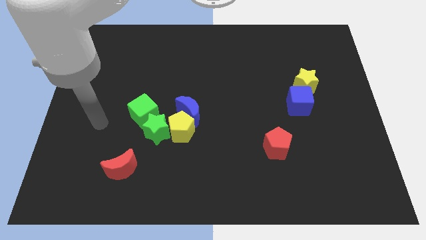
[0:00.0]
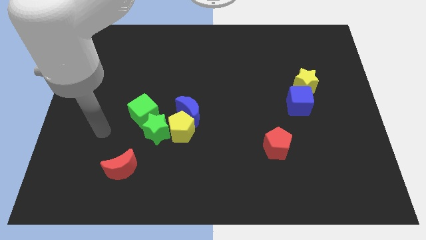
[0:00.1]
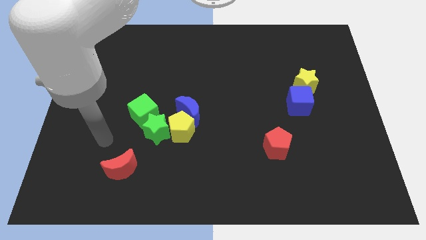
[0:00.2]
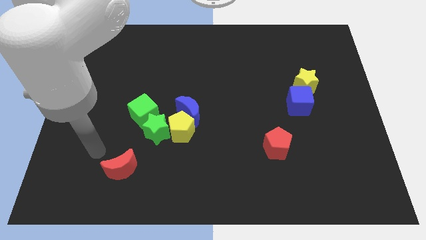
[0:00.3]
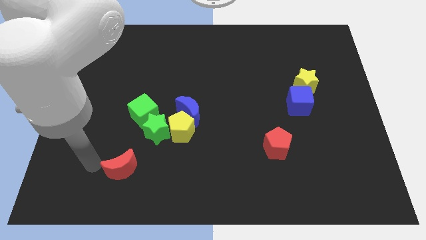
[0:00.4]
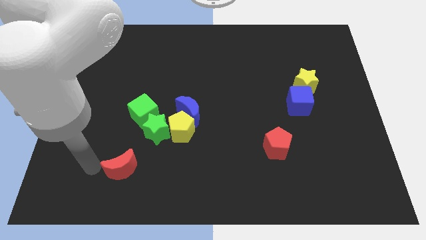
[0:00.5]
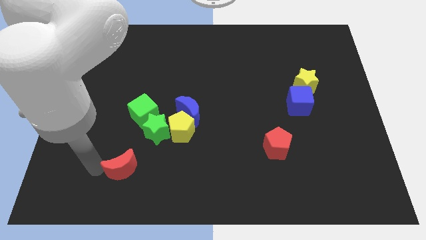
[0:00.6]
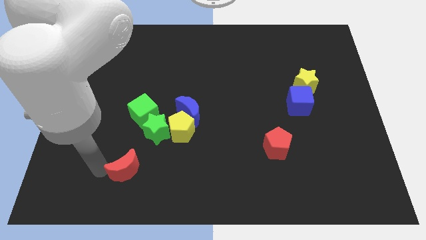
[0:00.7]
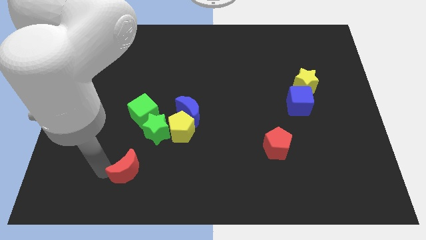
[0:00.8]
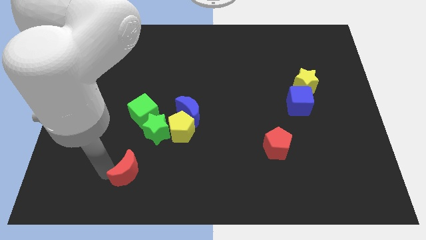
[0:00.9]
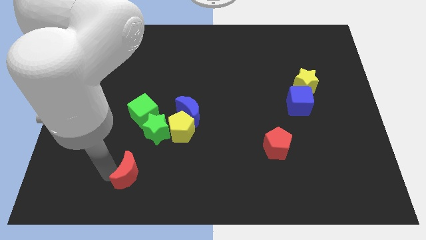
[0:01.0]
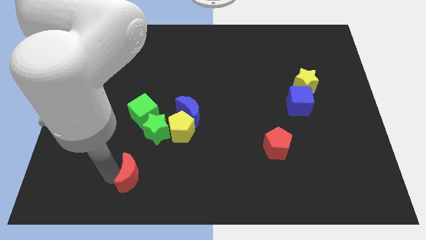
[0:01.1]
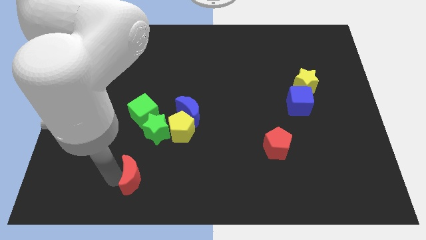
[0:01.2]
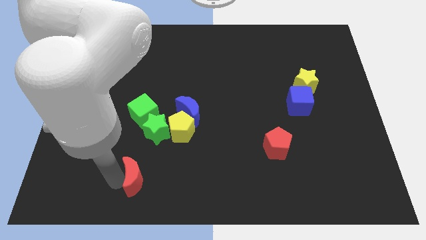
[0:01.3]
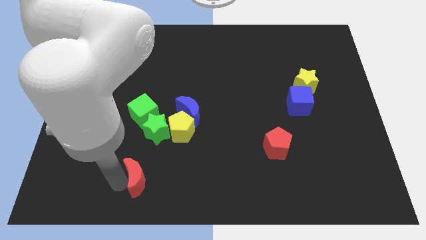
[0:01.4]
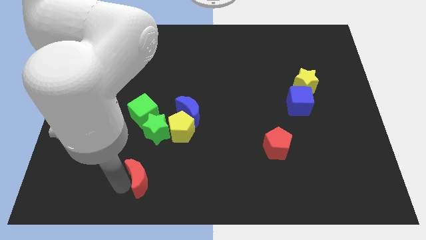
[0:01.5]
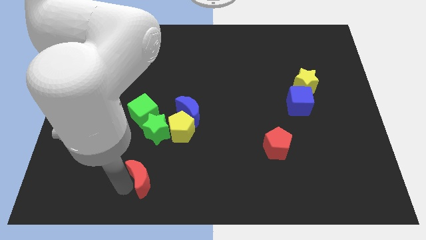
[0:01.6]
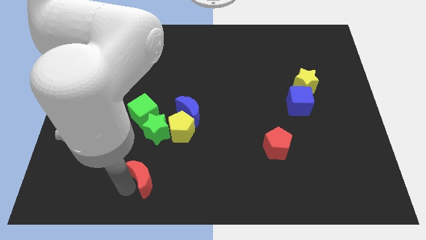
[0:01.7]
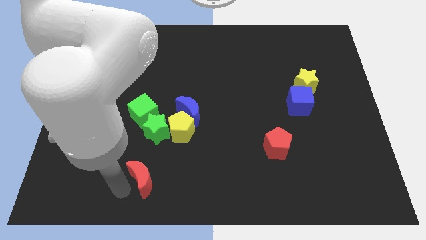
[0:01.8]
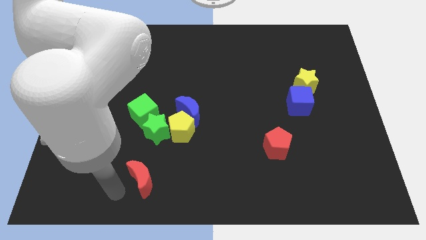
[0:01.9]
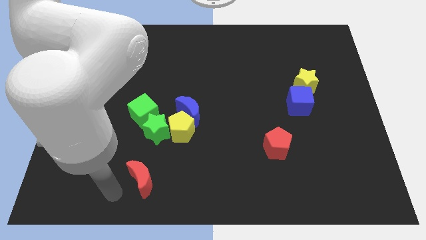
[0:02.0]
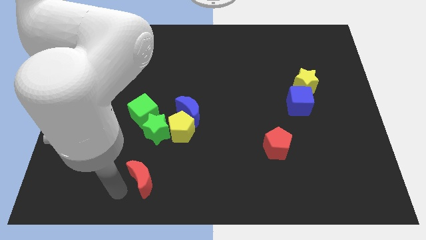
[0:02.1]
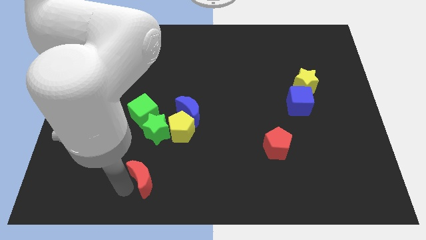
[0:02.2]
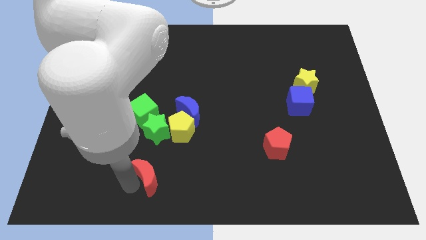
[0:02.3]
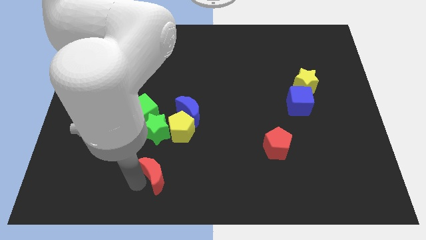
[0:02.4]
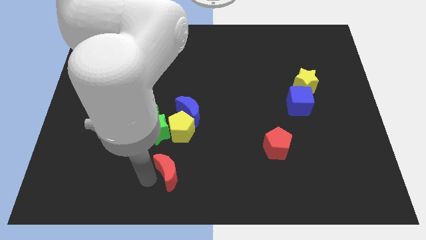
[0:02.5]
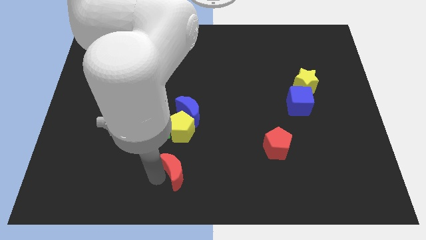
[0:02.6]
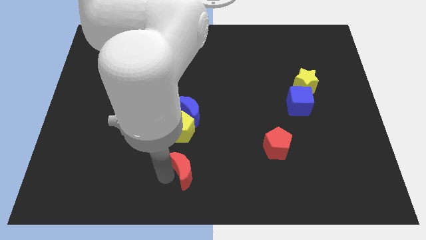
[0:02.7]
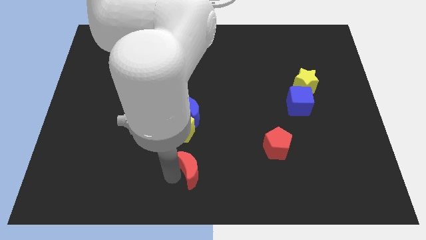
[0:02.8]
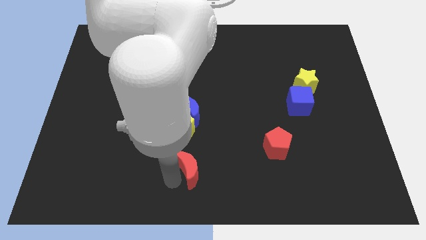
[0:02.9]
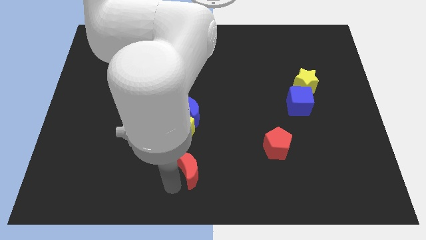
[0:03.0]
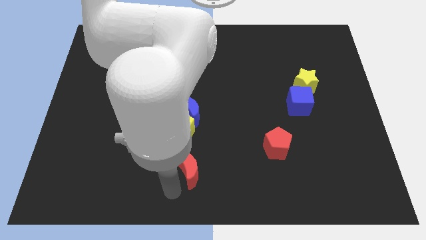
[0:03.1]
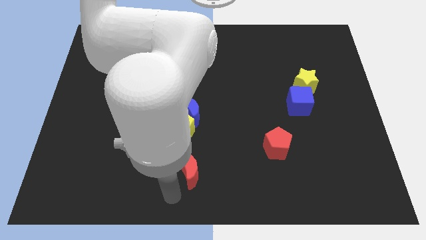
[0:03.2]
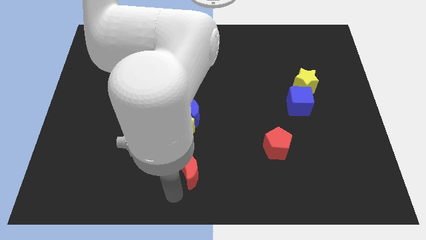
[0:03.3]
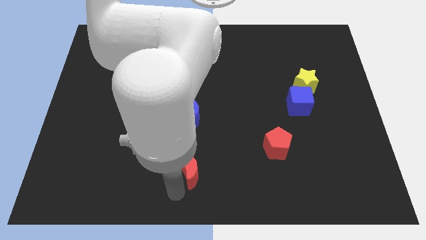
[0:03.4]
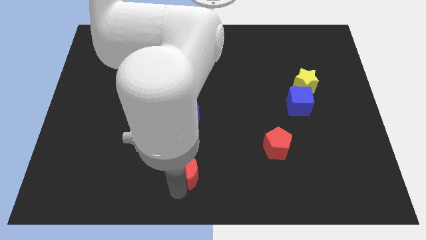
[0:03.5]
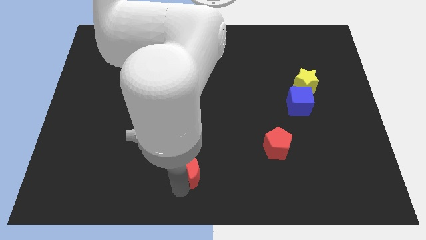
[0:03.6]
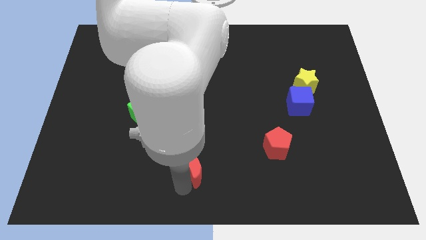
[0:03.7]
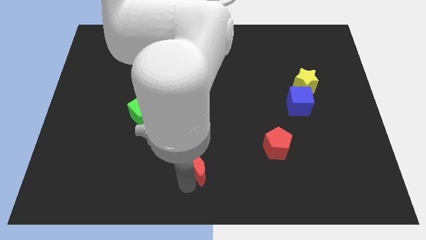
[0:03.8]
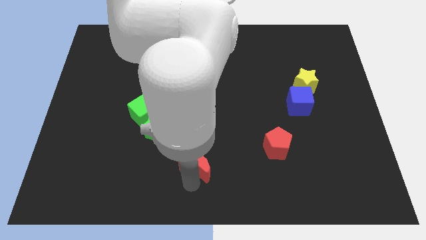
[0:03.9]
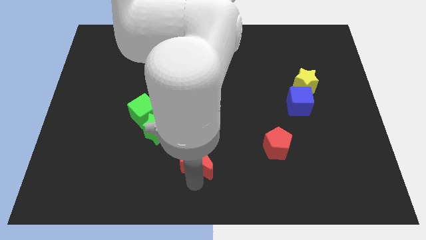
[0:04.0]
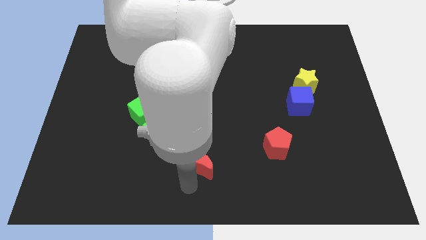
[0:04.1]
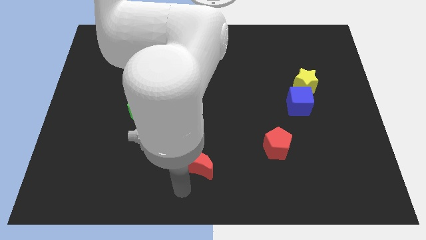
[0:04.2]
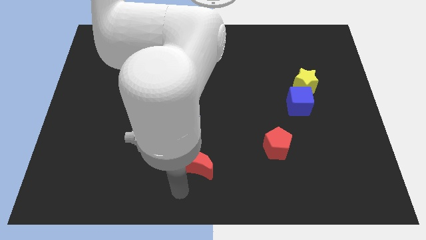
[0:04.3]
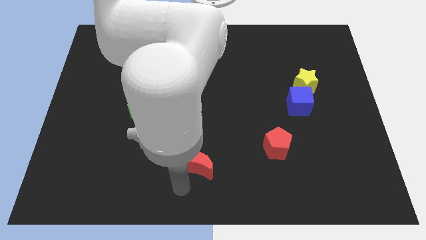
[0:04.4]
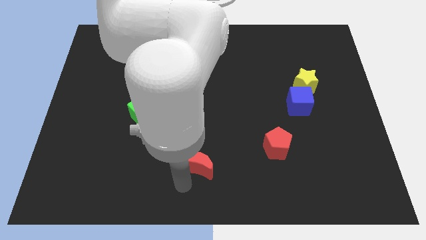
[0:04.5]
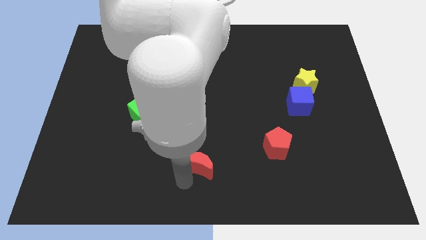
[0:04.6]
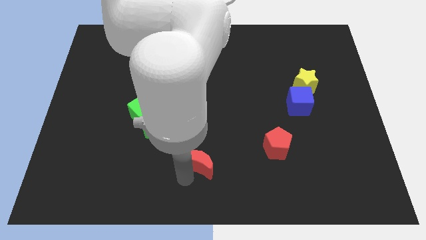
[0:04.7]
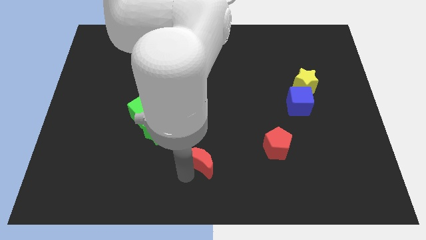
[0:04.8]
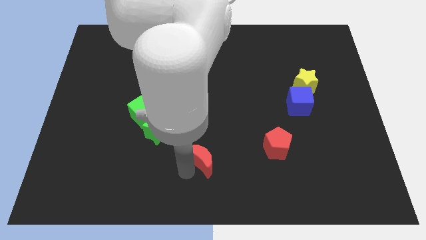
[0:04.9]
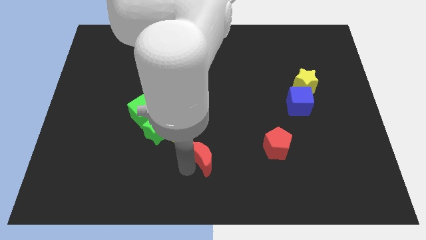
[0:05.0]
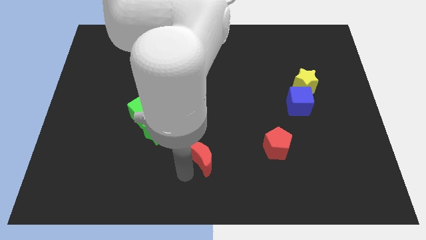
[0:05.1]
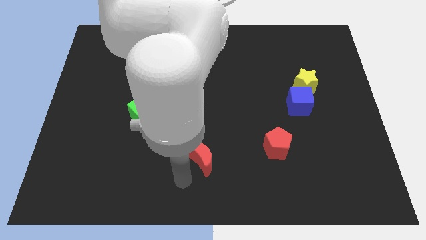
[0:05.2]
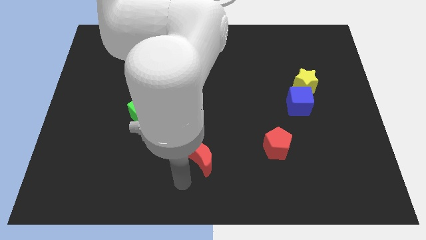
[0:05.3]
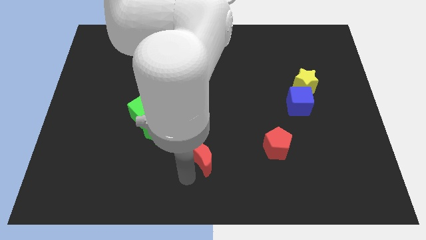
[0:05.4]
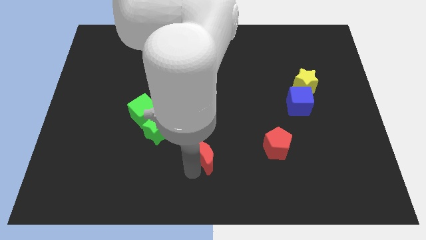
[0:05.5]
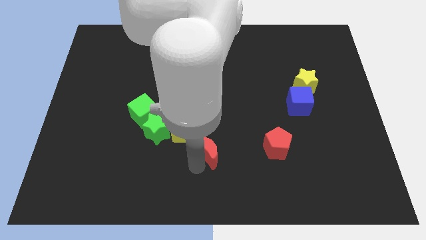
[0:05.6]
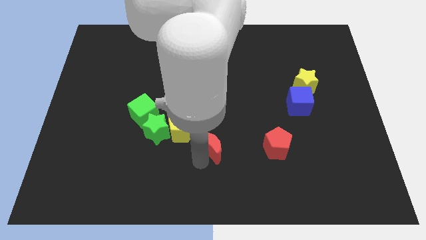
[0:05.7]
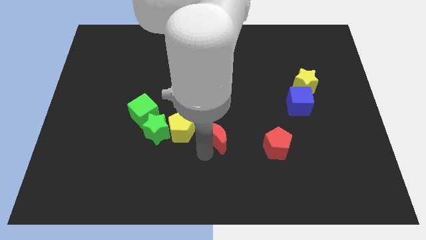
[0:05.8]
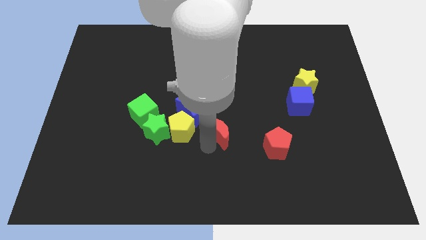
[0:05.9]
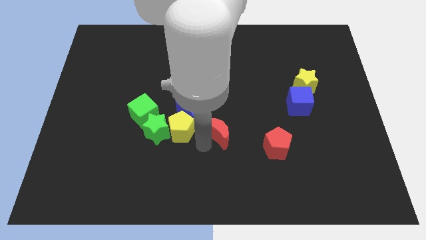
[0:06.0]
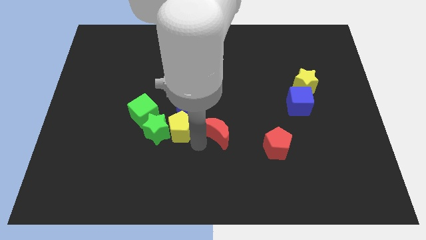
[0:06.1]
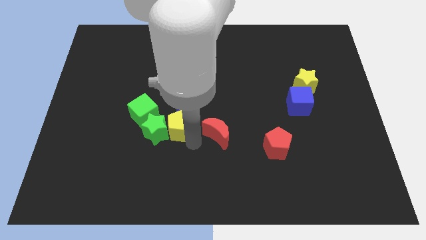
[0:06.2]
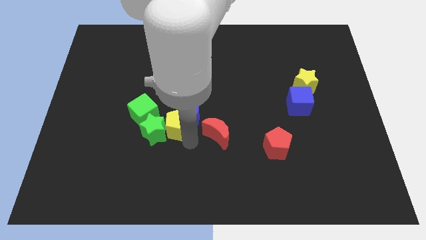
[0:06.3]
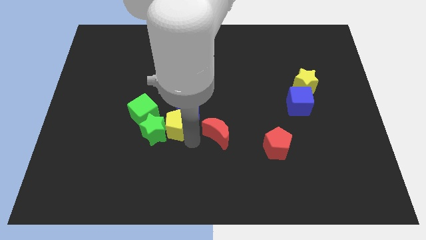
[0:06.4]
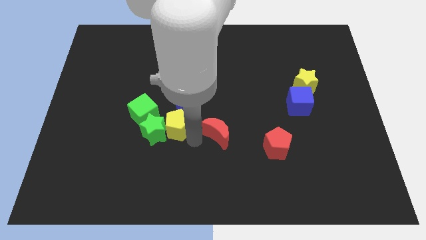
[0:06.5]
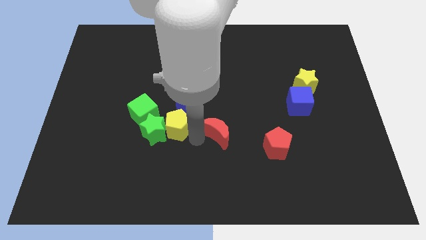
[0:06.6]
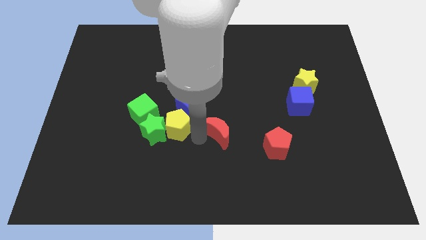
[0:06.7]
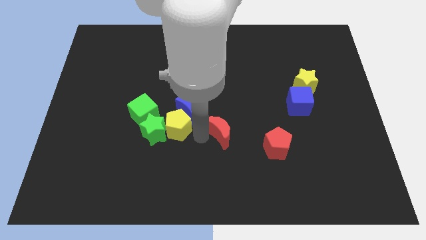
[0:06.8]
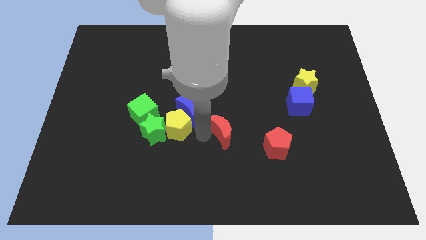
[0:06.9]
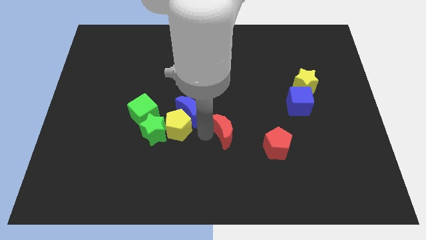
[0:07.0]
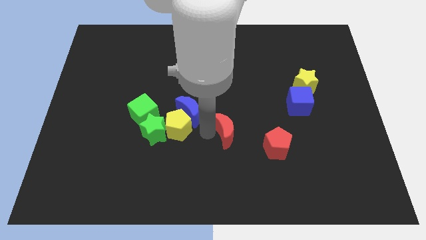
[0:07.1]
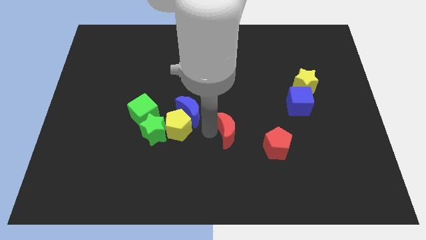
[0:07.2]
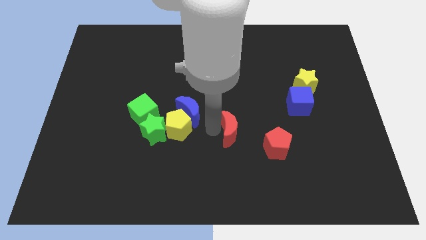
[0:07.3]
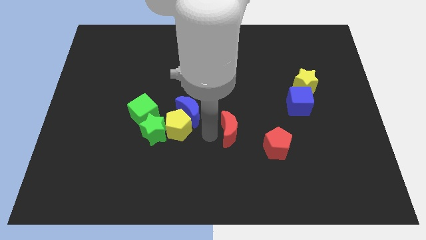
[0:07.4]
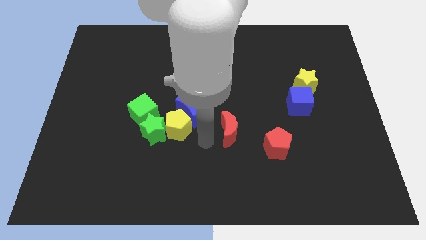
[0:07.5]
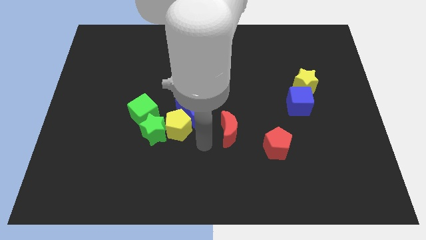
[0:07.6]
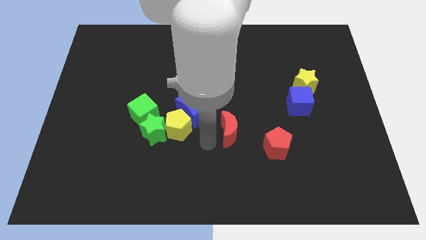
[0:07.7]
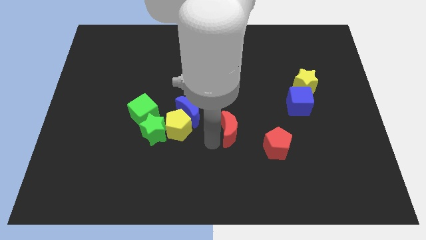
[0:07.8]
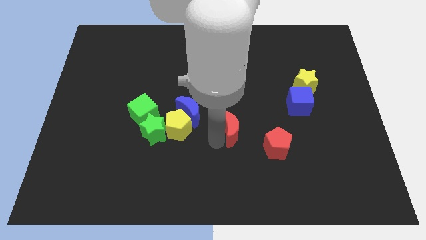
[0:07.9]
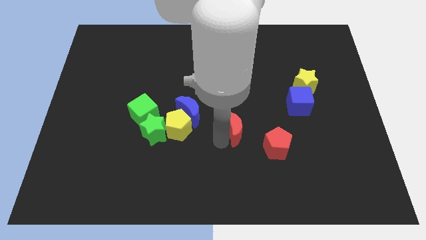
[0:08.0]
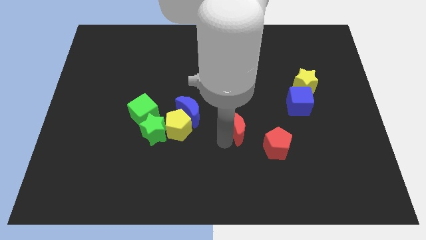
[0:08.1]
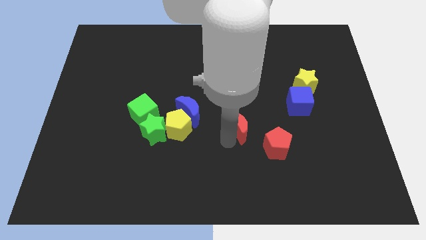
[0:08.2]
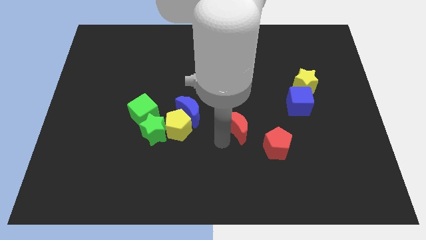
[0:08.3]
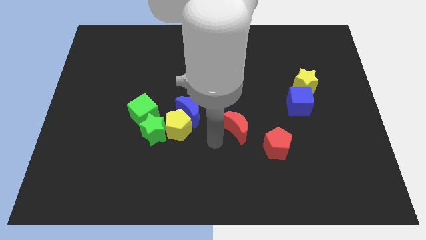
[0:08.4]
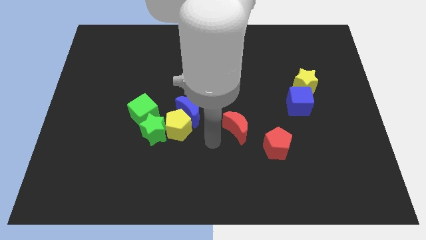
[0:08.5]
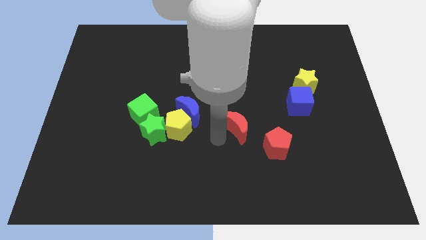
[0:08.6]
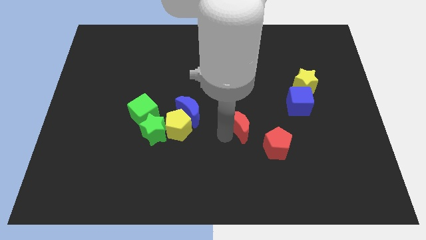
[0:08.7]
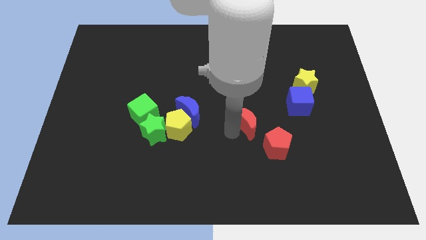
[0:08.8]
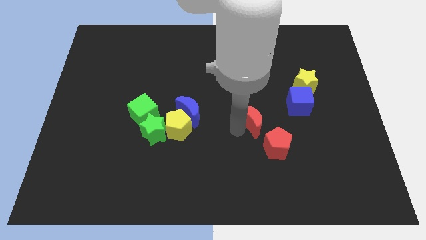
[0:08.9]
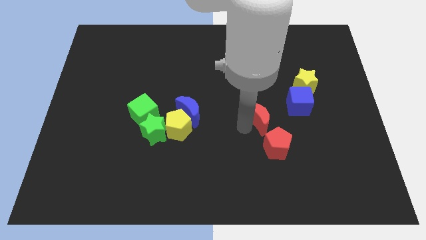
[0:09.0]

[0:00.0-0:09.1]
move the red moon to the top of the red pentagon
